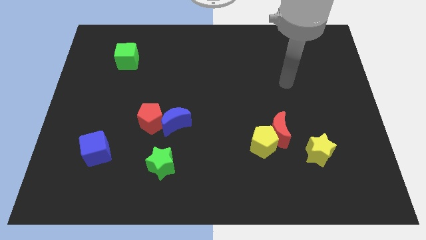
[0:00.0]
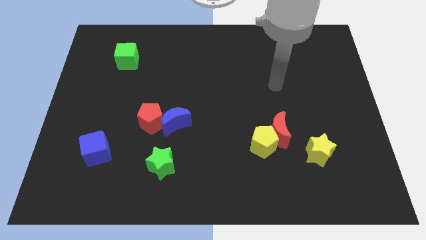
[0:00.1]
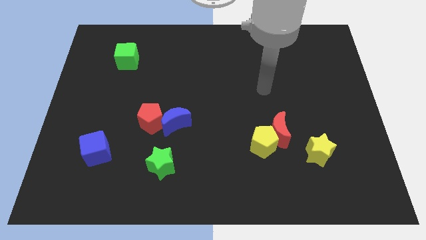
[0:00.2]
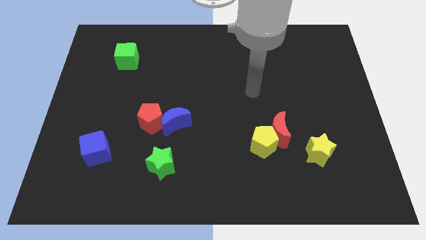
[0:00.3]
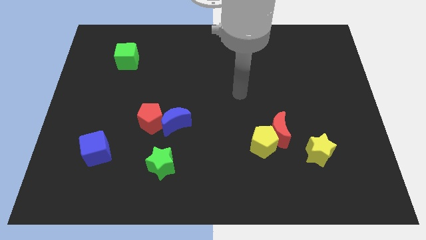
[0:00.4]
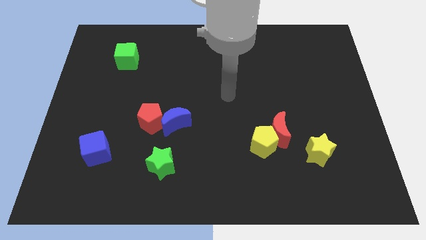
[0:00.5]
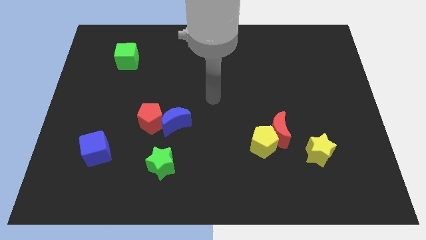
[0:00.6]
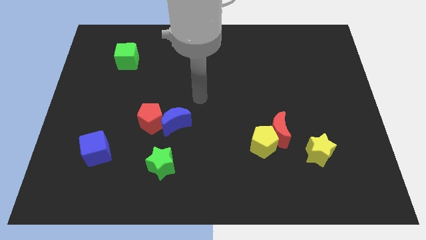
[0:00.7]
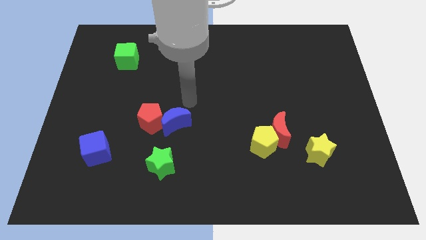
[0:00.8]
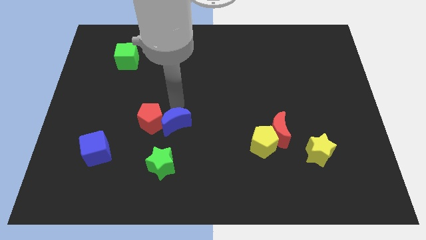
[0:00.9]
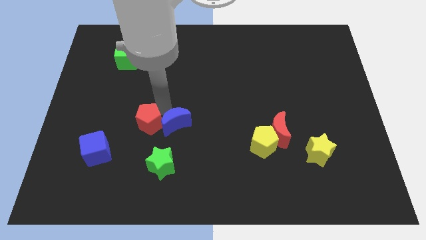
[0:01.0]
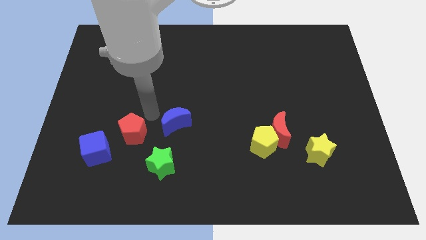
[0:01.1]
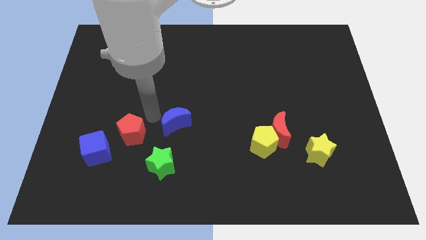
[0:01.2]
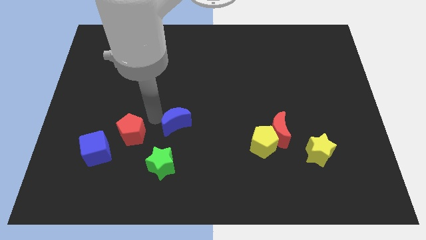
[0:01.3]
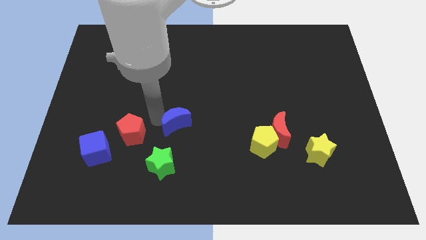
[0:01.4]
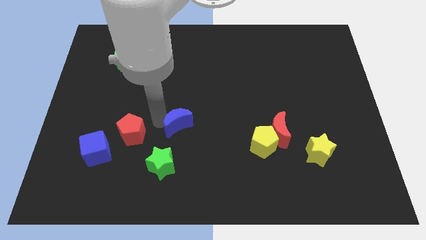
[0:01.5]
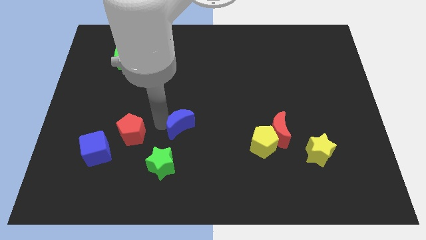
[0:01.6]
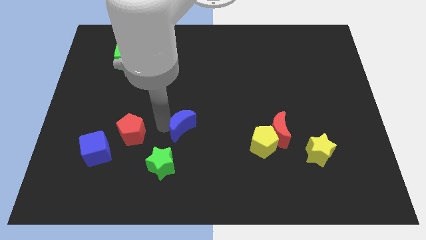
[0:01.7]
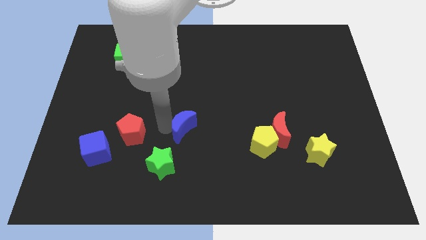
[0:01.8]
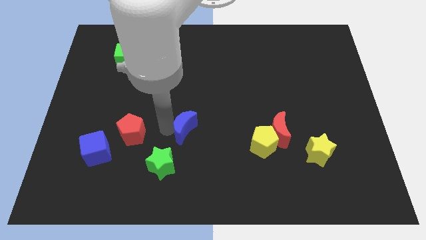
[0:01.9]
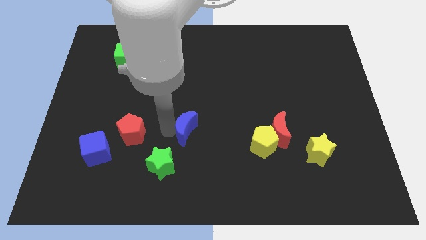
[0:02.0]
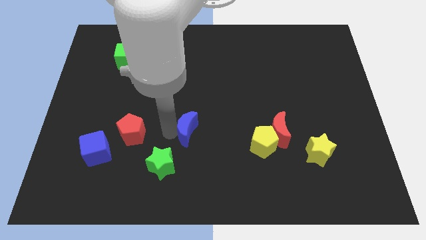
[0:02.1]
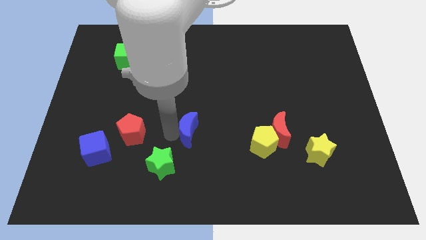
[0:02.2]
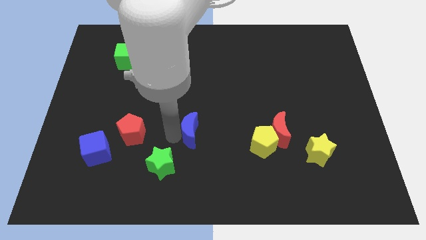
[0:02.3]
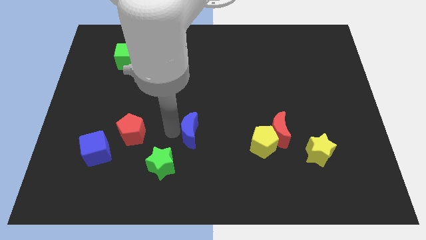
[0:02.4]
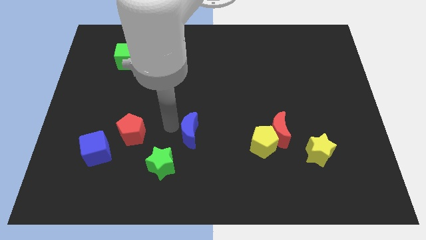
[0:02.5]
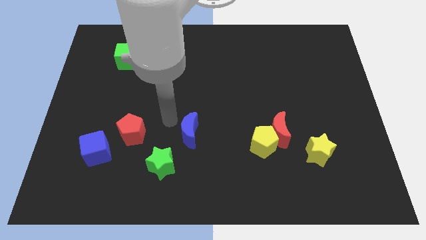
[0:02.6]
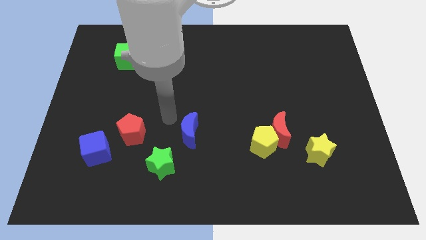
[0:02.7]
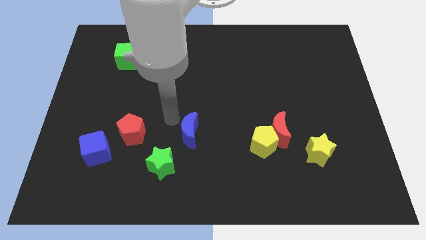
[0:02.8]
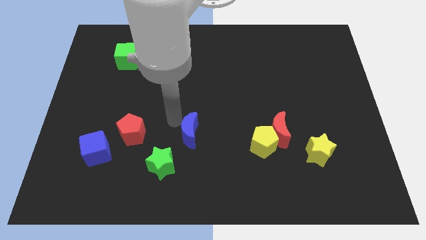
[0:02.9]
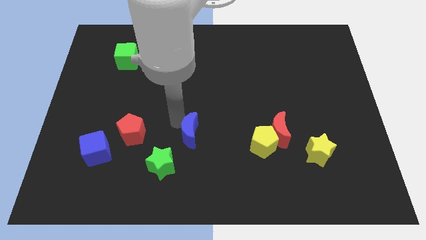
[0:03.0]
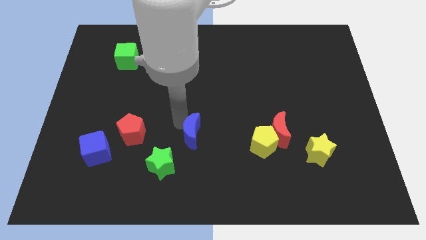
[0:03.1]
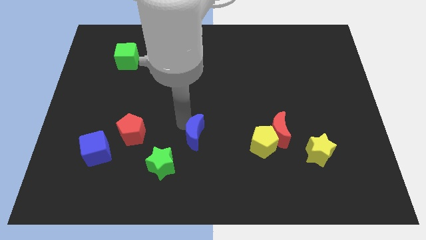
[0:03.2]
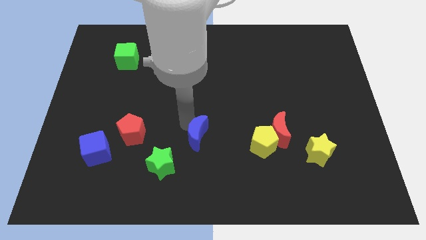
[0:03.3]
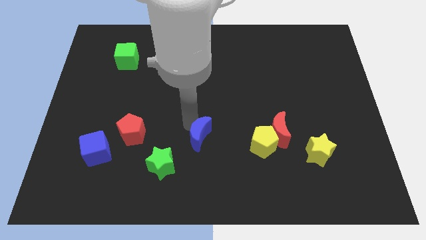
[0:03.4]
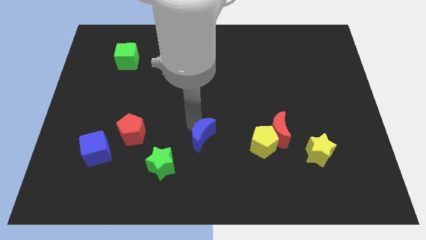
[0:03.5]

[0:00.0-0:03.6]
slide the blue moon a little bit down and then to the right

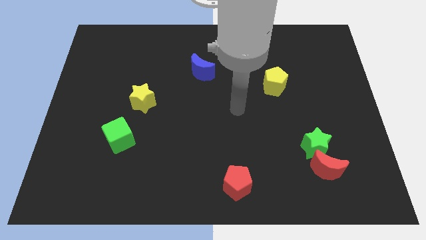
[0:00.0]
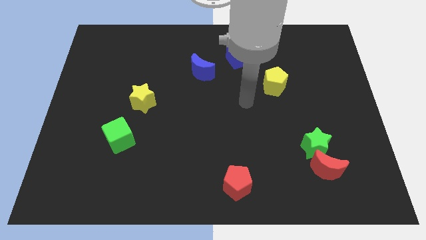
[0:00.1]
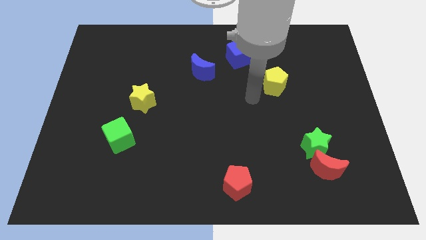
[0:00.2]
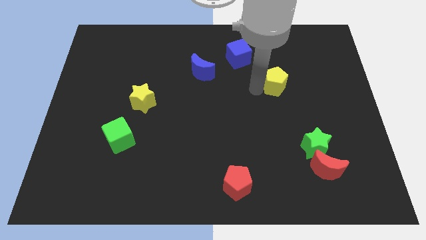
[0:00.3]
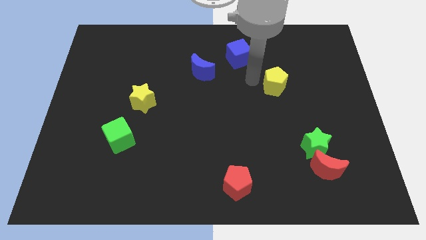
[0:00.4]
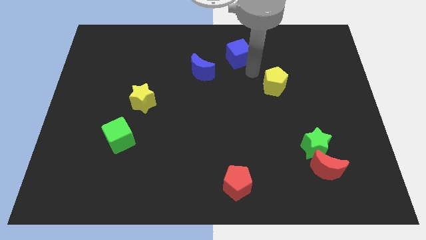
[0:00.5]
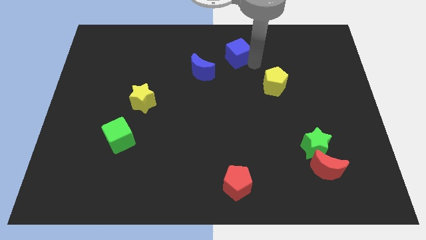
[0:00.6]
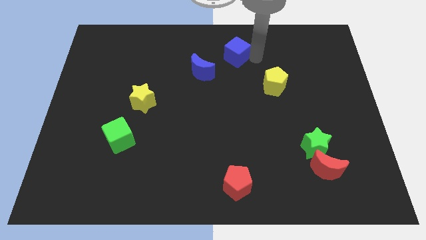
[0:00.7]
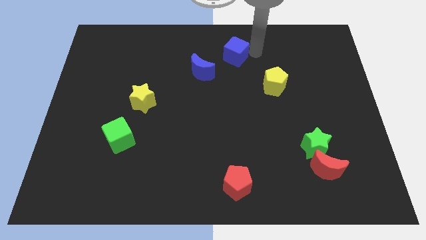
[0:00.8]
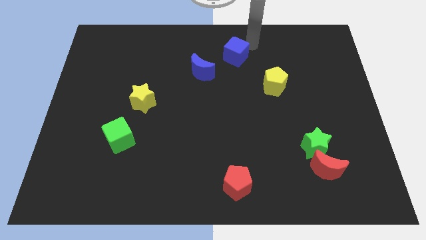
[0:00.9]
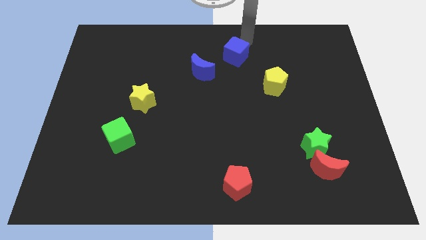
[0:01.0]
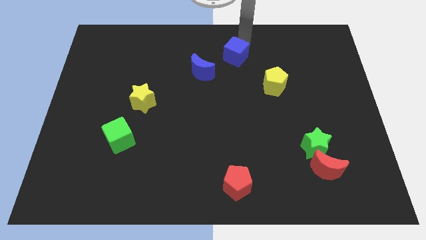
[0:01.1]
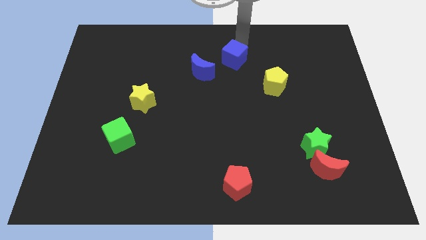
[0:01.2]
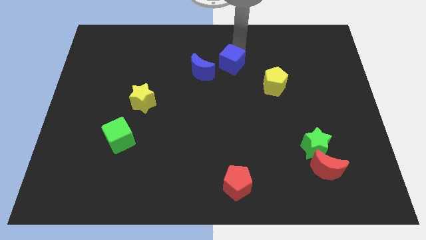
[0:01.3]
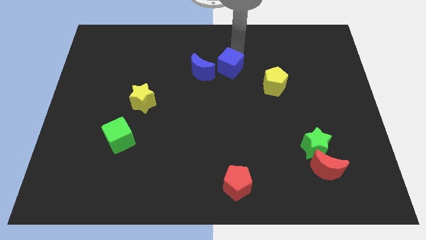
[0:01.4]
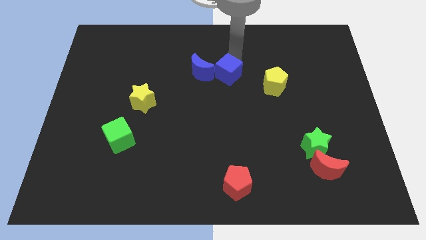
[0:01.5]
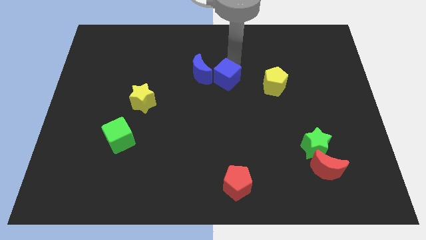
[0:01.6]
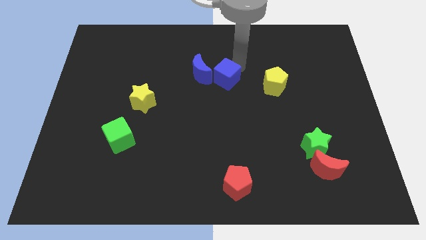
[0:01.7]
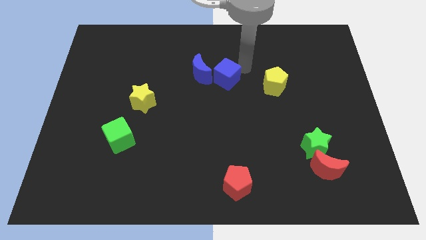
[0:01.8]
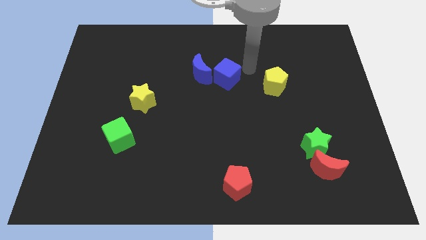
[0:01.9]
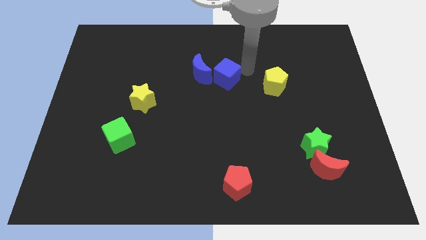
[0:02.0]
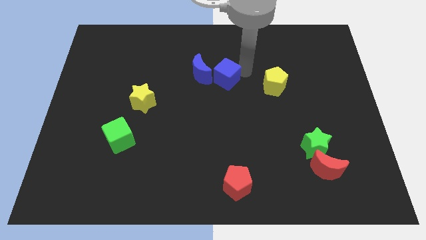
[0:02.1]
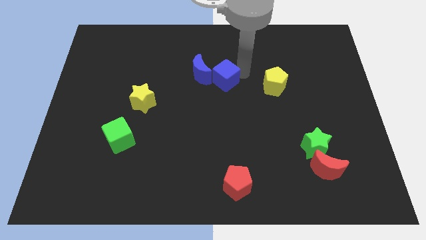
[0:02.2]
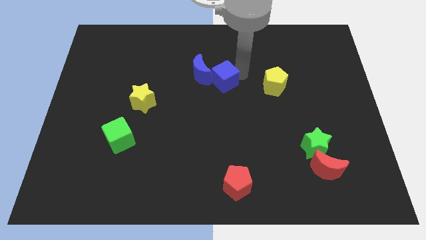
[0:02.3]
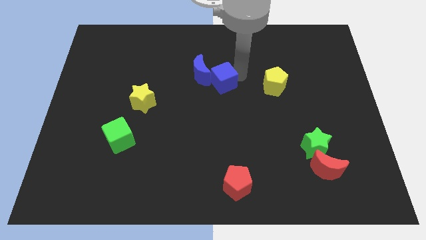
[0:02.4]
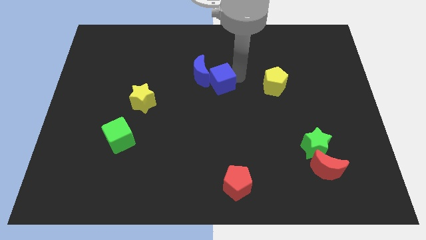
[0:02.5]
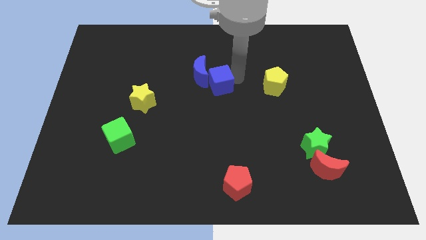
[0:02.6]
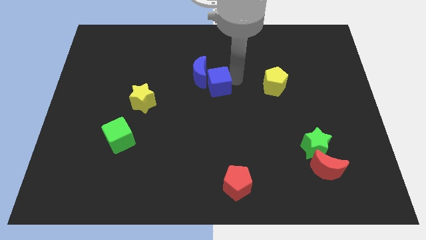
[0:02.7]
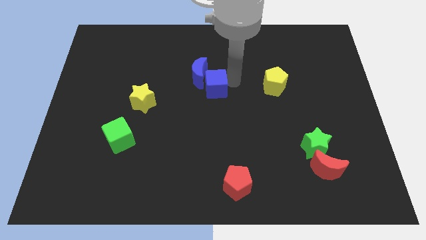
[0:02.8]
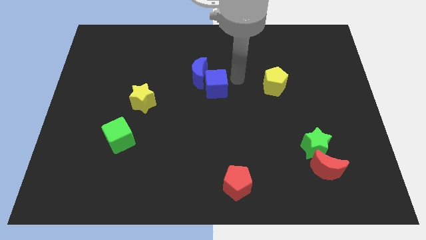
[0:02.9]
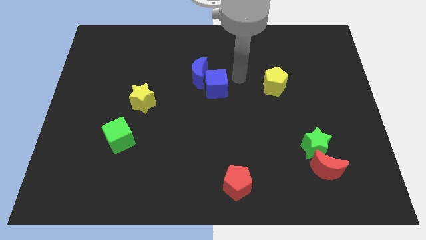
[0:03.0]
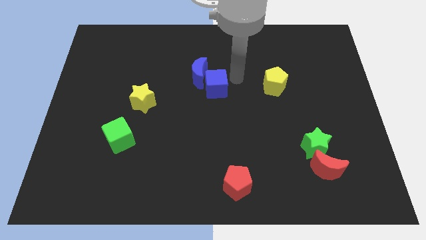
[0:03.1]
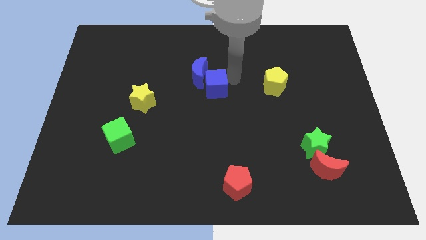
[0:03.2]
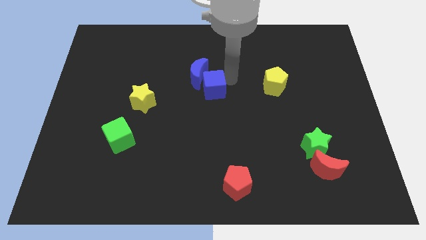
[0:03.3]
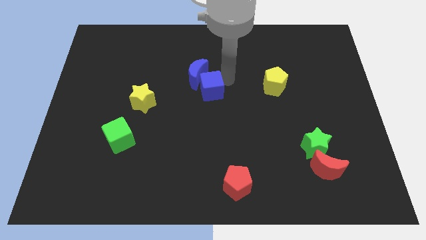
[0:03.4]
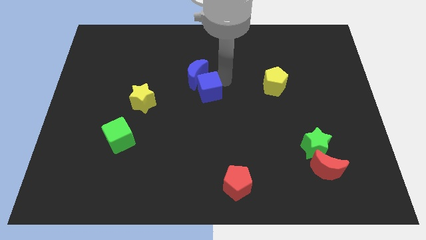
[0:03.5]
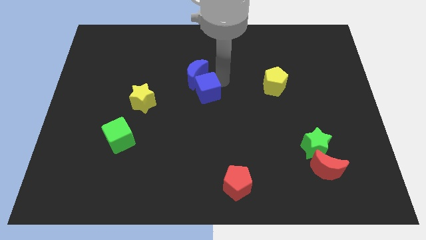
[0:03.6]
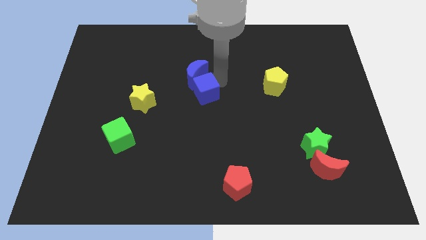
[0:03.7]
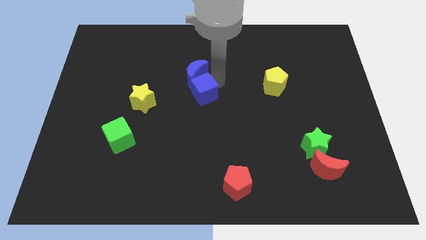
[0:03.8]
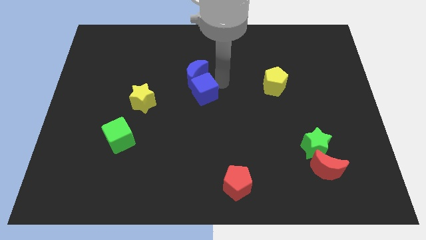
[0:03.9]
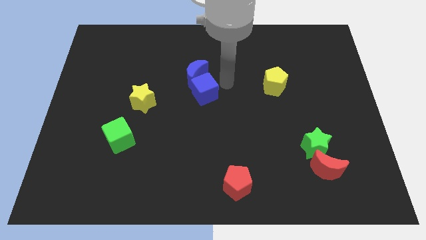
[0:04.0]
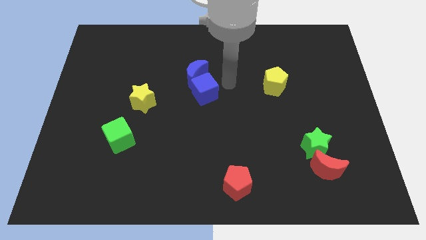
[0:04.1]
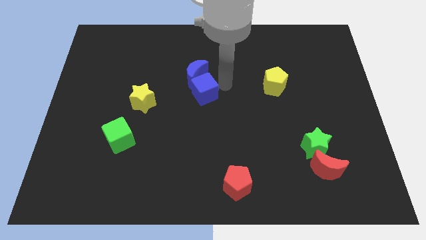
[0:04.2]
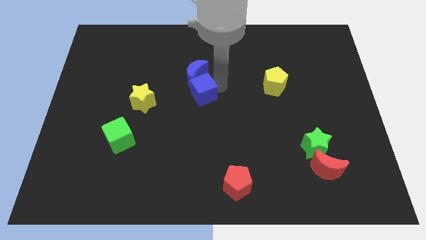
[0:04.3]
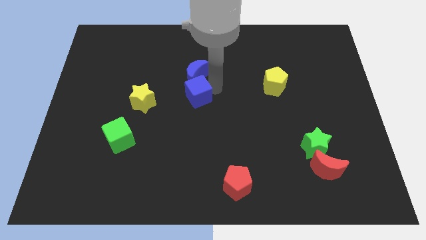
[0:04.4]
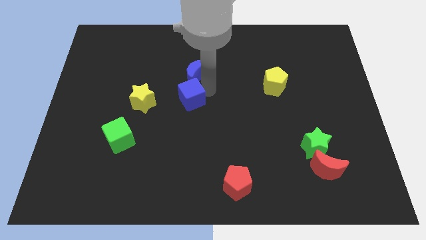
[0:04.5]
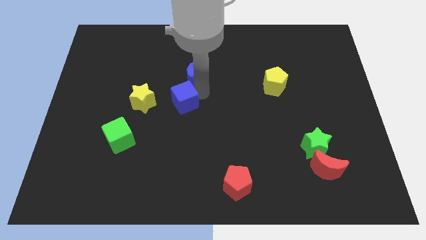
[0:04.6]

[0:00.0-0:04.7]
move the blue cube down and to the left diagonally
